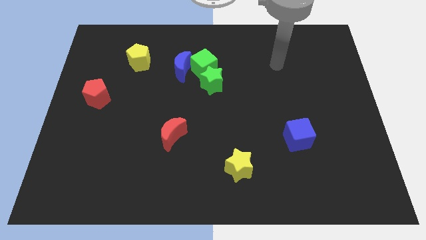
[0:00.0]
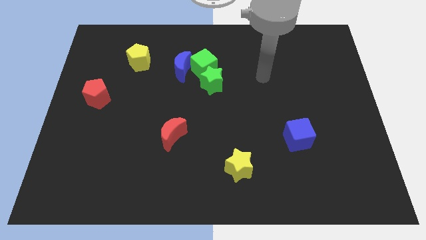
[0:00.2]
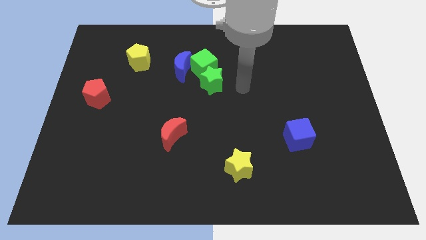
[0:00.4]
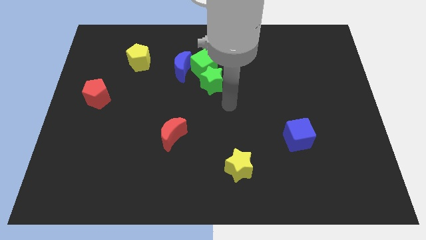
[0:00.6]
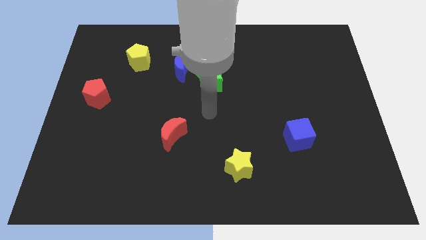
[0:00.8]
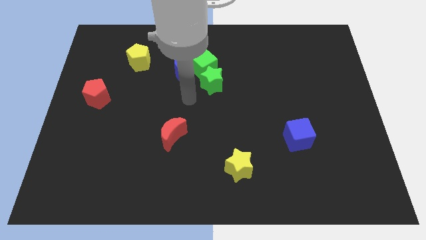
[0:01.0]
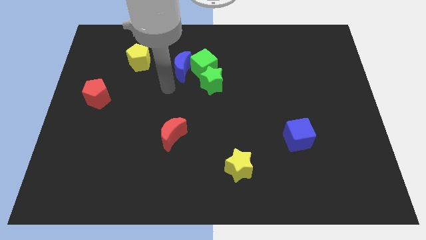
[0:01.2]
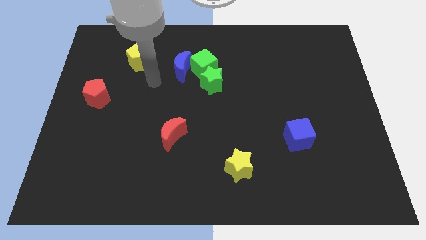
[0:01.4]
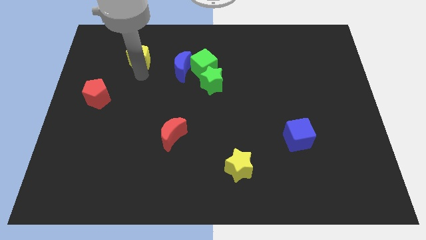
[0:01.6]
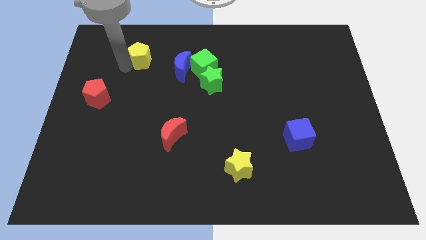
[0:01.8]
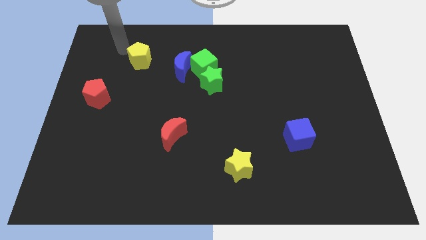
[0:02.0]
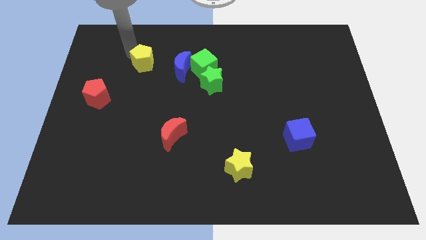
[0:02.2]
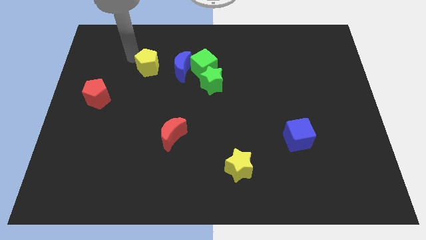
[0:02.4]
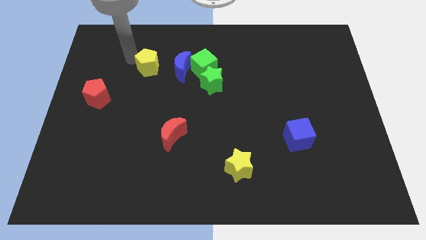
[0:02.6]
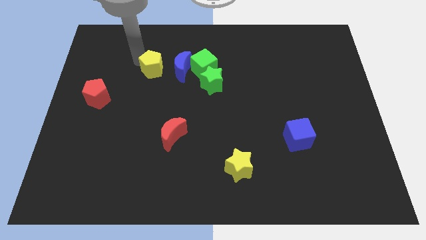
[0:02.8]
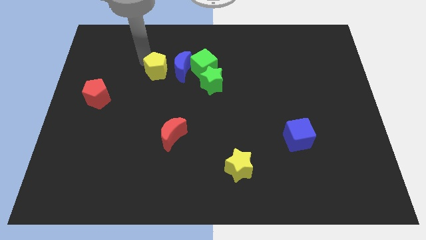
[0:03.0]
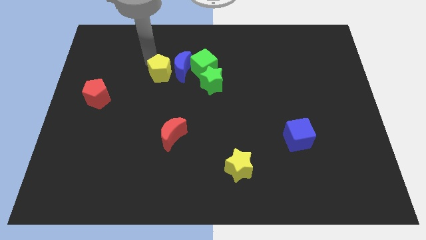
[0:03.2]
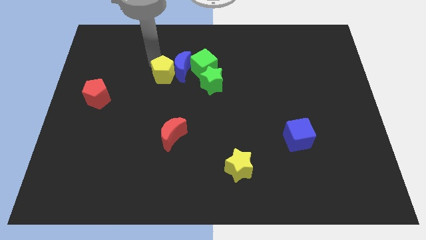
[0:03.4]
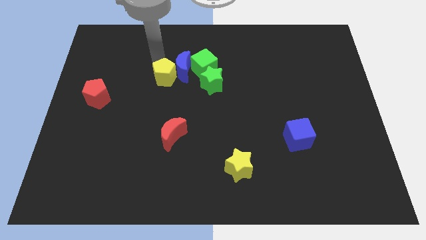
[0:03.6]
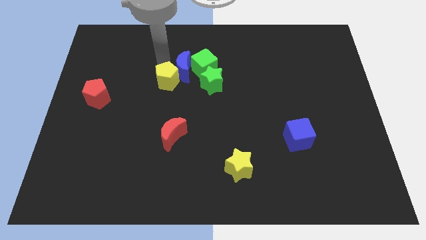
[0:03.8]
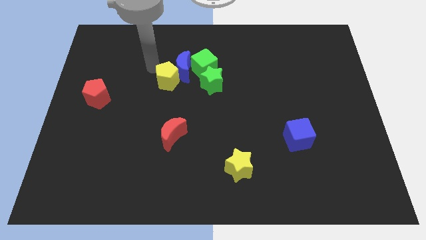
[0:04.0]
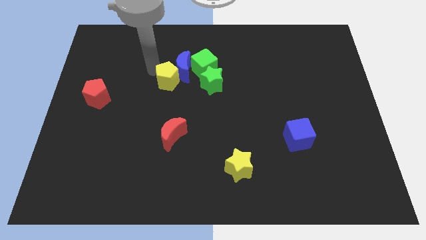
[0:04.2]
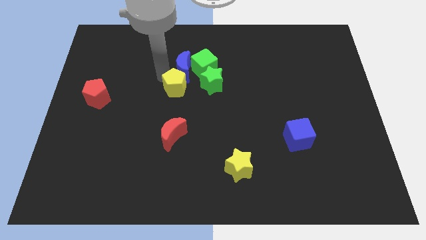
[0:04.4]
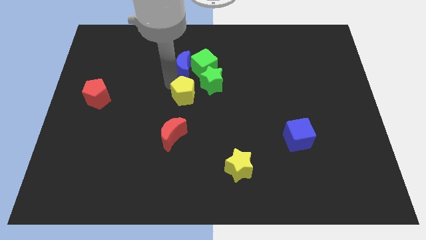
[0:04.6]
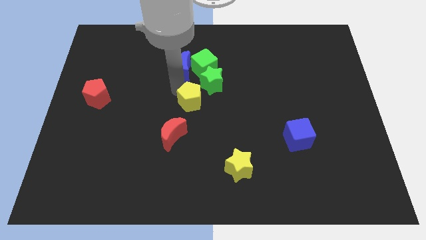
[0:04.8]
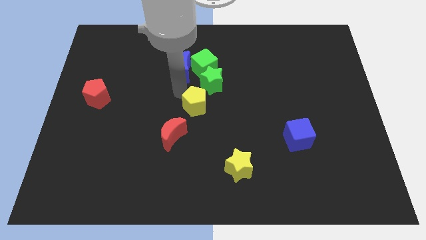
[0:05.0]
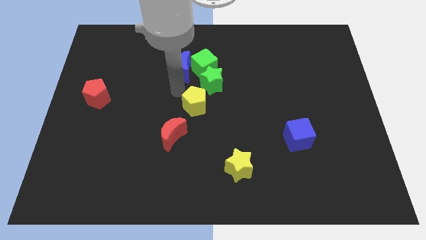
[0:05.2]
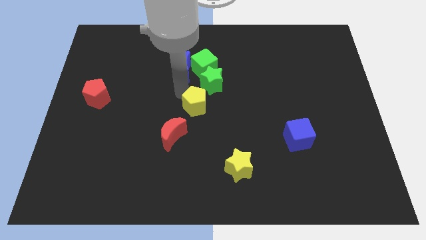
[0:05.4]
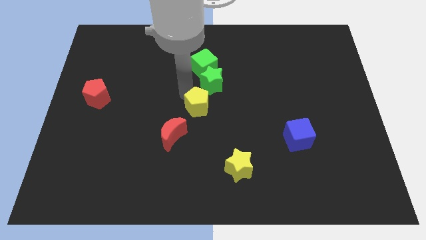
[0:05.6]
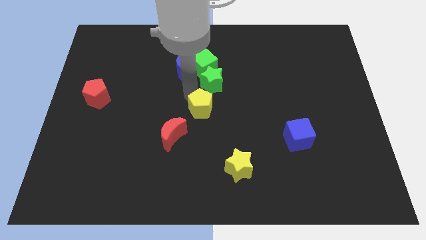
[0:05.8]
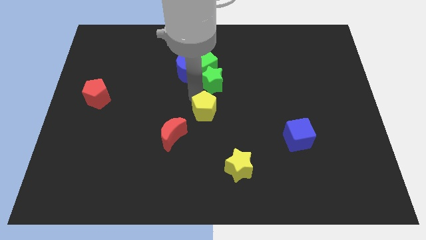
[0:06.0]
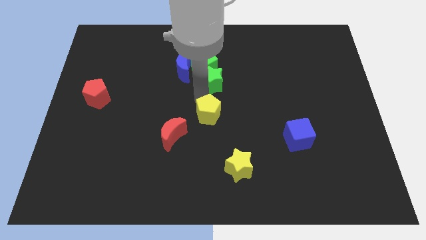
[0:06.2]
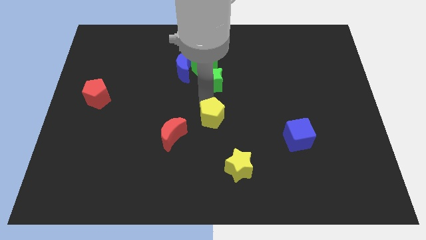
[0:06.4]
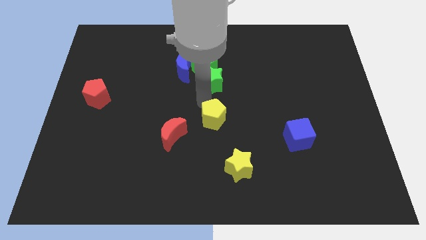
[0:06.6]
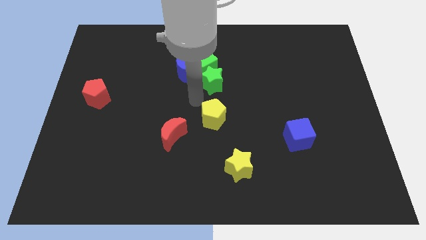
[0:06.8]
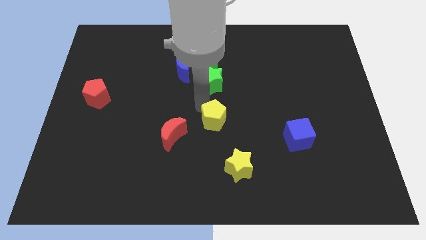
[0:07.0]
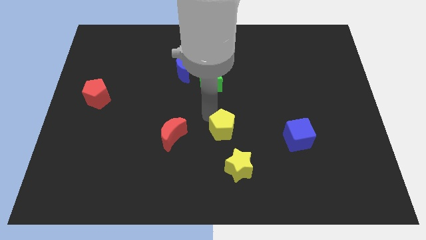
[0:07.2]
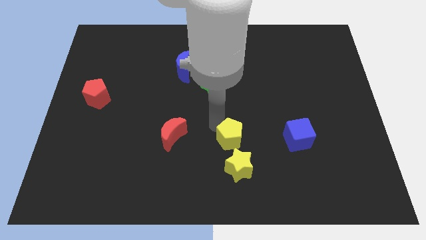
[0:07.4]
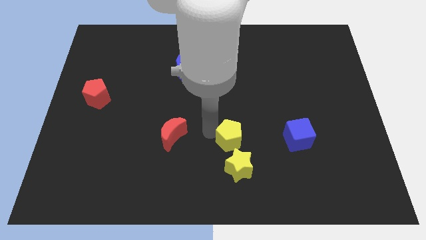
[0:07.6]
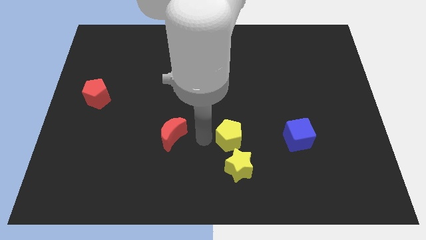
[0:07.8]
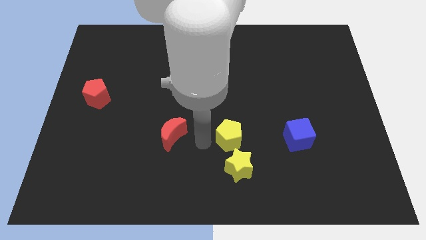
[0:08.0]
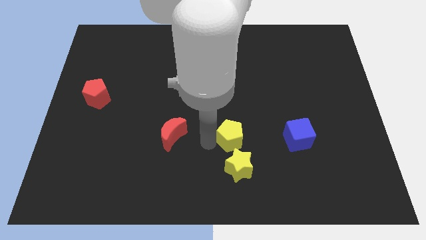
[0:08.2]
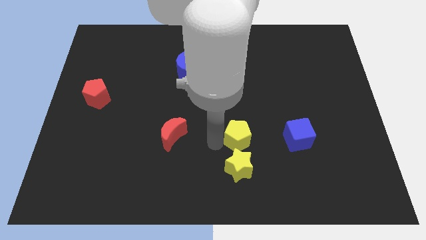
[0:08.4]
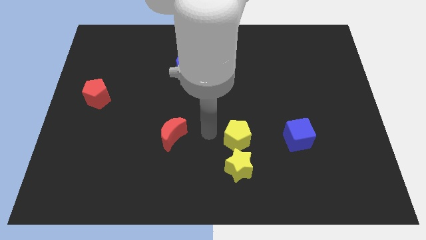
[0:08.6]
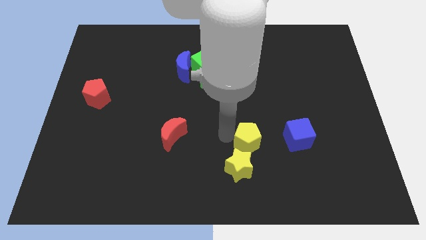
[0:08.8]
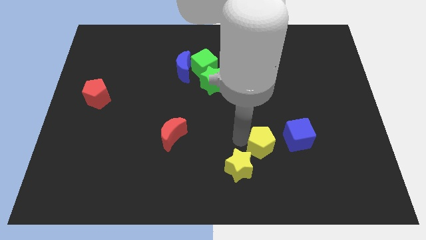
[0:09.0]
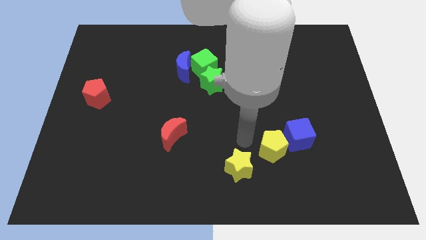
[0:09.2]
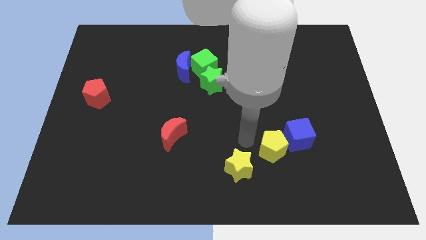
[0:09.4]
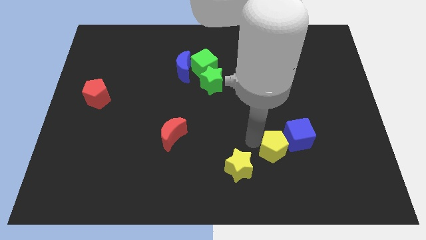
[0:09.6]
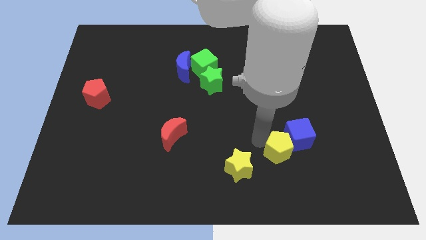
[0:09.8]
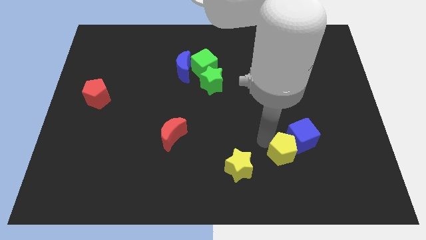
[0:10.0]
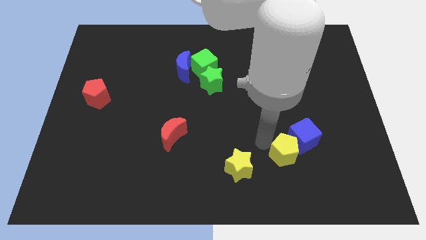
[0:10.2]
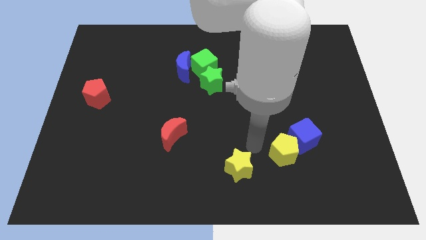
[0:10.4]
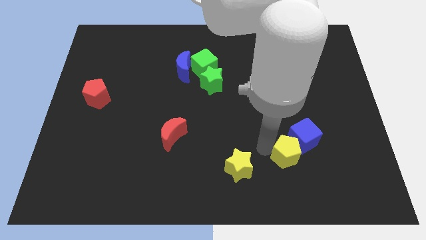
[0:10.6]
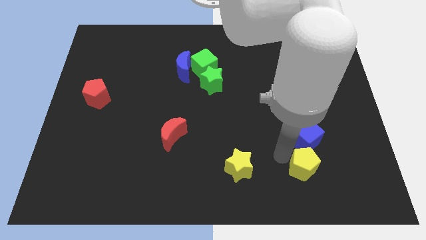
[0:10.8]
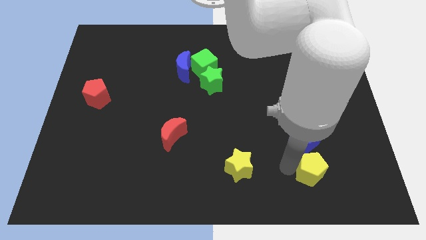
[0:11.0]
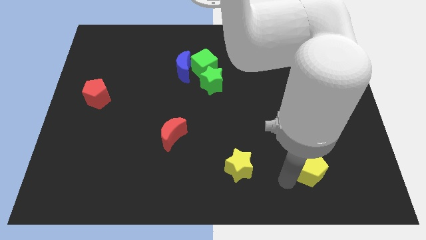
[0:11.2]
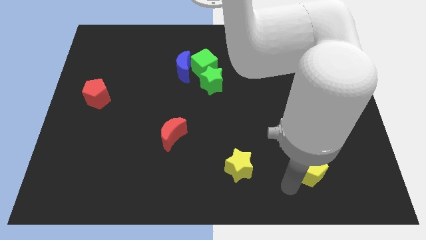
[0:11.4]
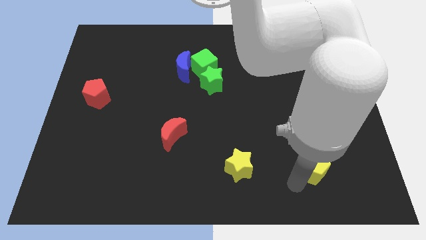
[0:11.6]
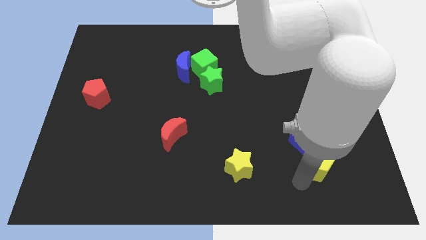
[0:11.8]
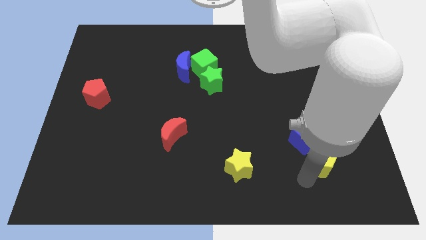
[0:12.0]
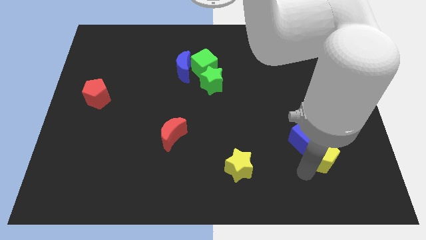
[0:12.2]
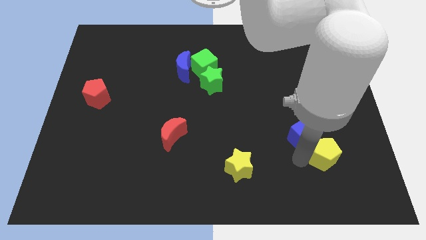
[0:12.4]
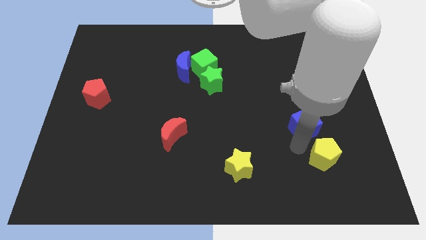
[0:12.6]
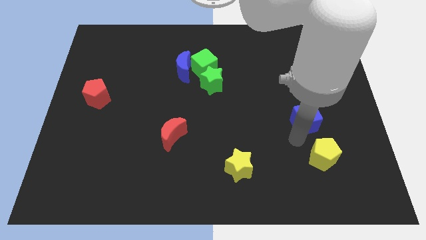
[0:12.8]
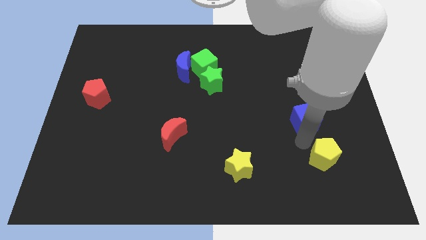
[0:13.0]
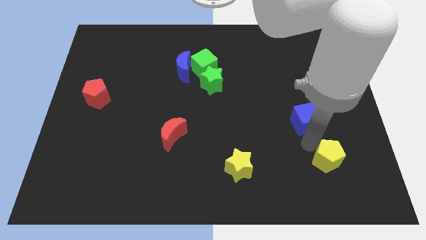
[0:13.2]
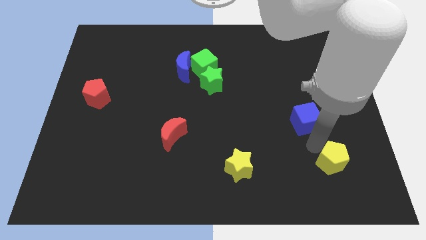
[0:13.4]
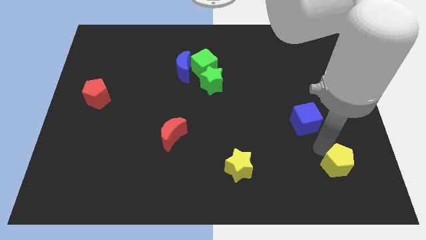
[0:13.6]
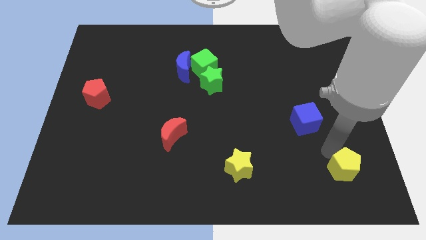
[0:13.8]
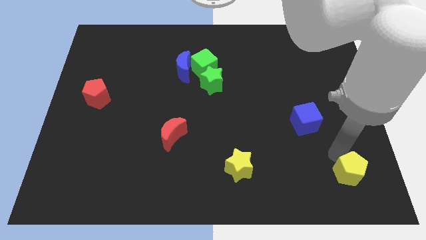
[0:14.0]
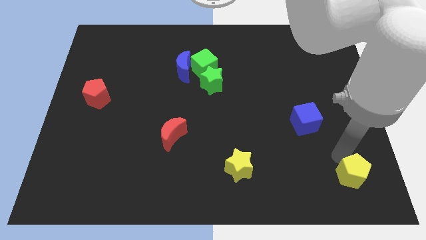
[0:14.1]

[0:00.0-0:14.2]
move the yellow pentagon to the lower right corner
